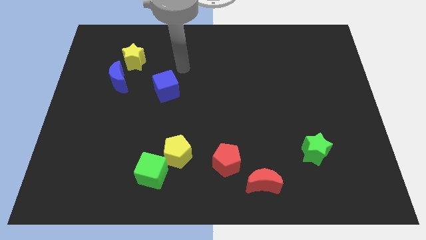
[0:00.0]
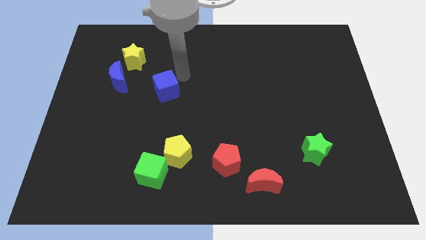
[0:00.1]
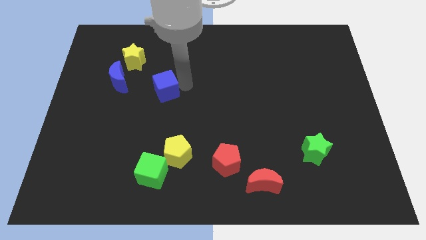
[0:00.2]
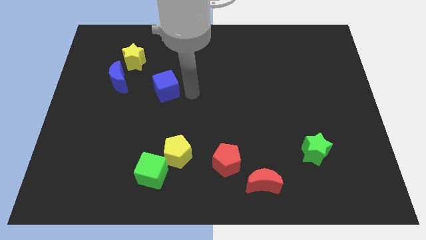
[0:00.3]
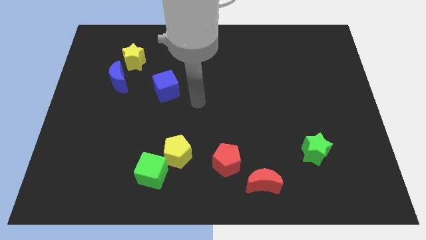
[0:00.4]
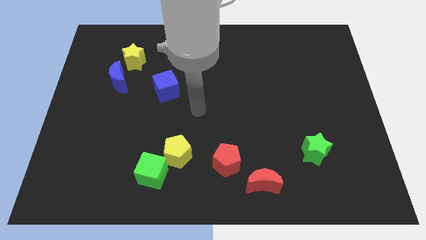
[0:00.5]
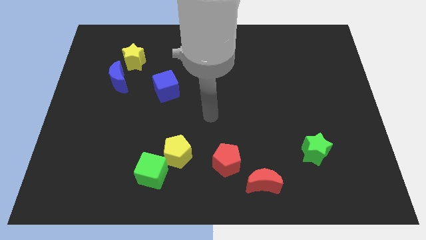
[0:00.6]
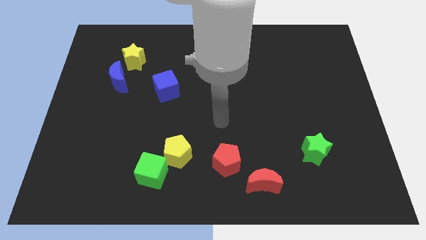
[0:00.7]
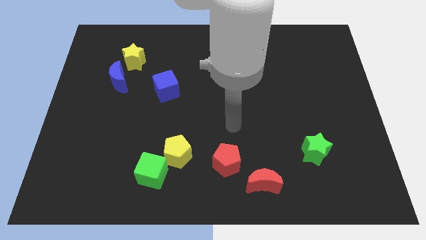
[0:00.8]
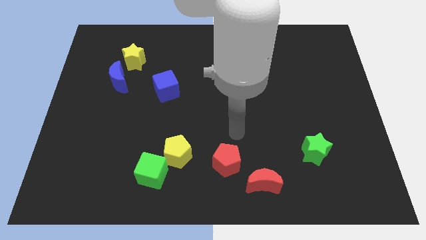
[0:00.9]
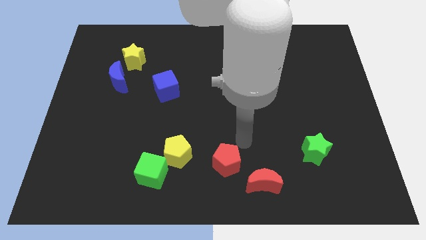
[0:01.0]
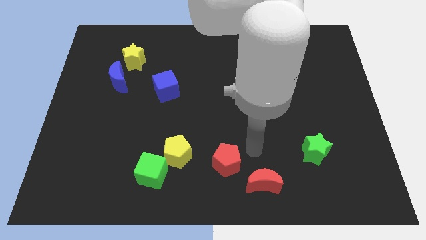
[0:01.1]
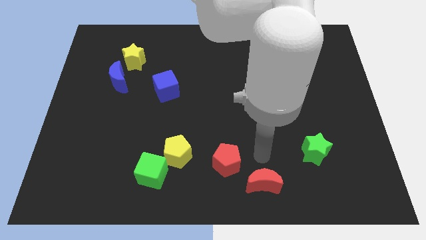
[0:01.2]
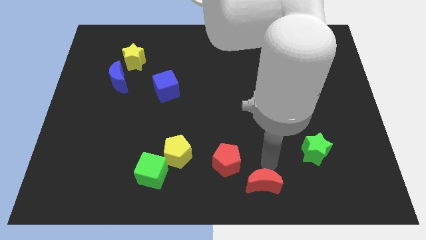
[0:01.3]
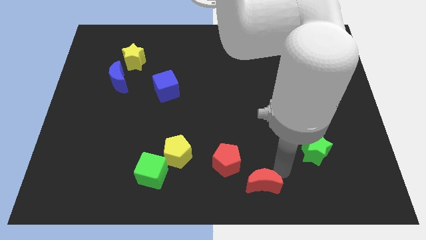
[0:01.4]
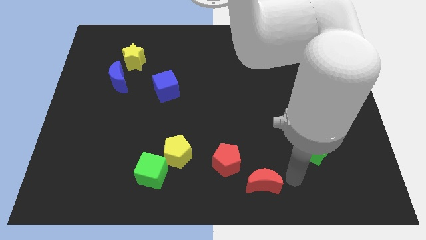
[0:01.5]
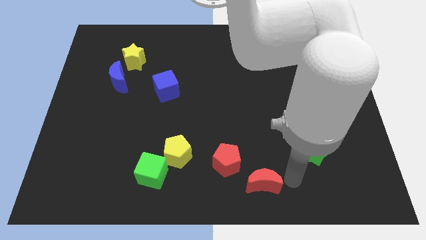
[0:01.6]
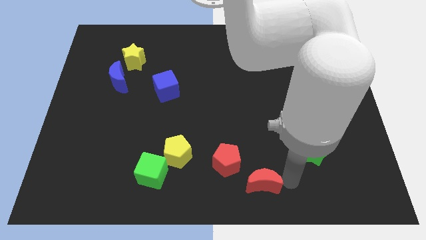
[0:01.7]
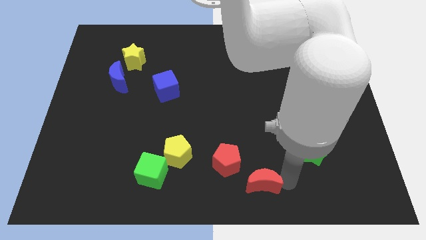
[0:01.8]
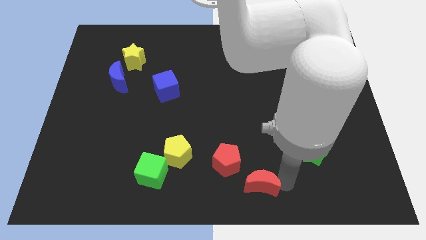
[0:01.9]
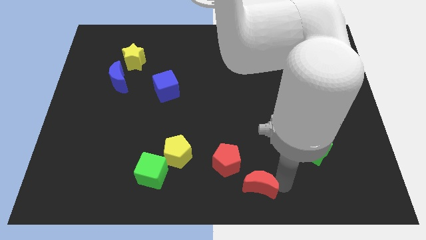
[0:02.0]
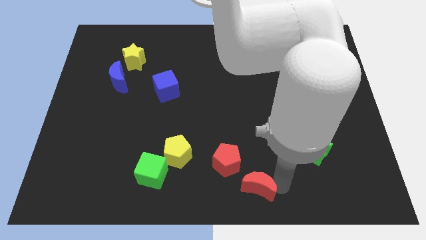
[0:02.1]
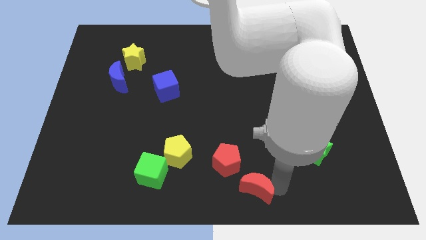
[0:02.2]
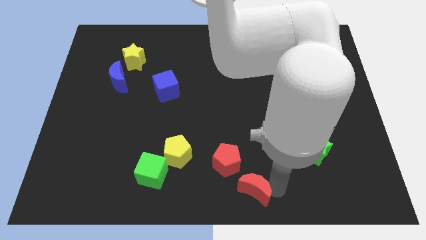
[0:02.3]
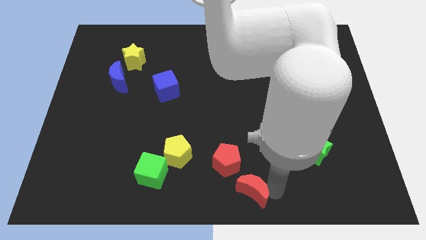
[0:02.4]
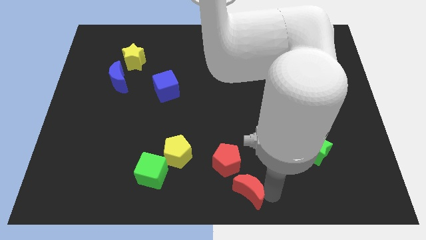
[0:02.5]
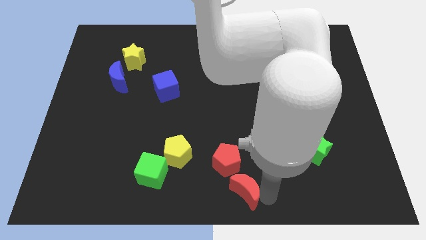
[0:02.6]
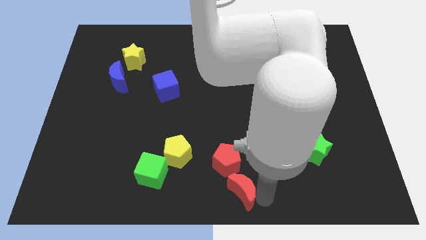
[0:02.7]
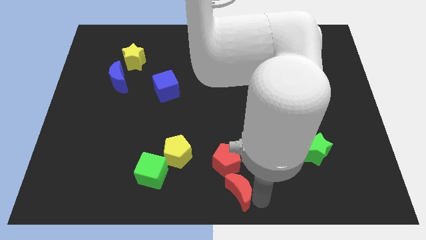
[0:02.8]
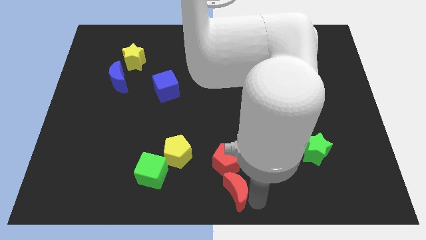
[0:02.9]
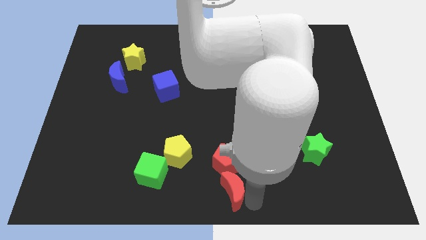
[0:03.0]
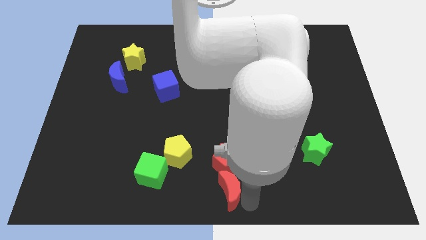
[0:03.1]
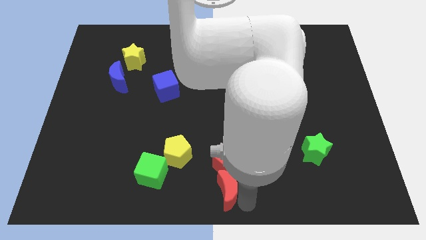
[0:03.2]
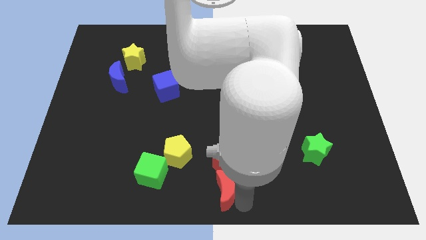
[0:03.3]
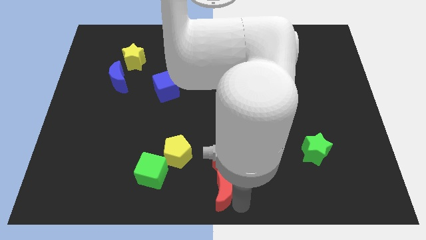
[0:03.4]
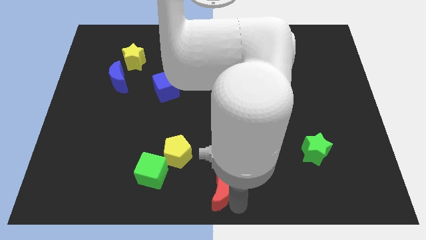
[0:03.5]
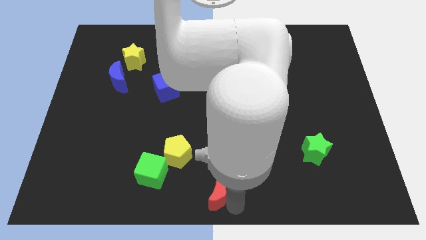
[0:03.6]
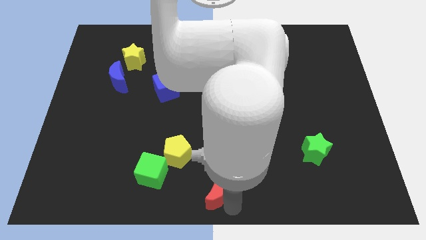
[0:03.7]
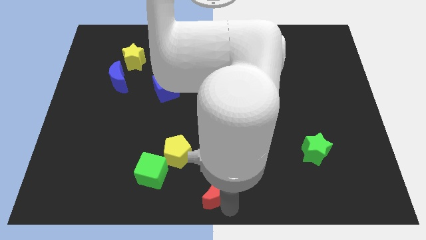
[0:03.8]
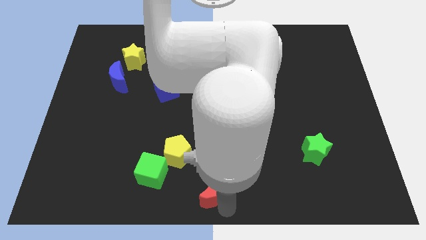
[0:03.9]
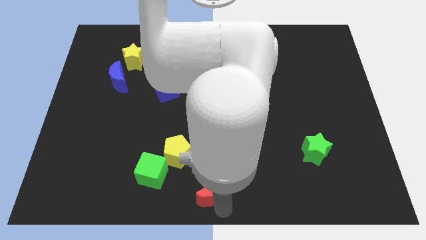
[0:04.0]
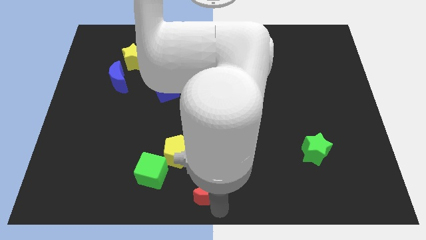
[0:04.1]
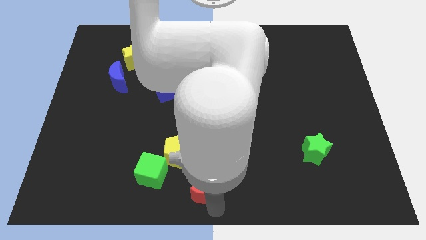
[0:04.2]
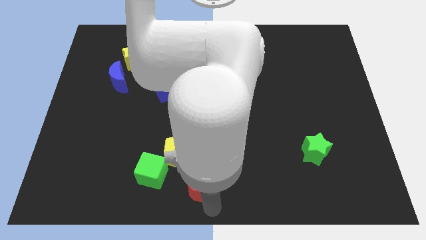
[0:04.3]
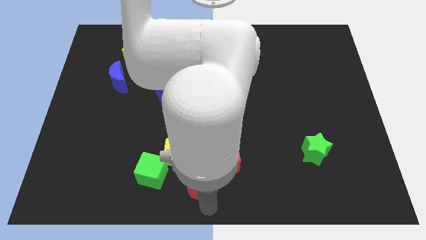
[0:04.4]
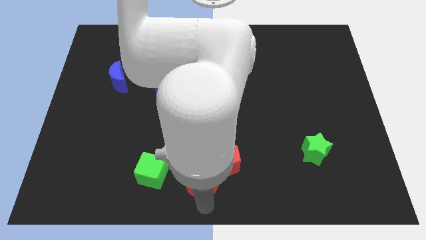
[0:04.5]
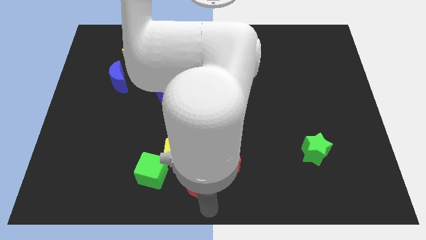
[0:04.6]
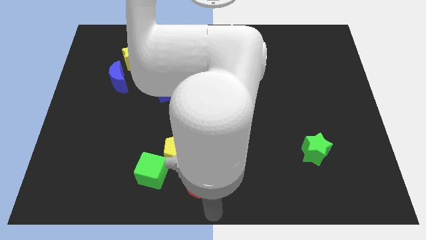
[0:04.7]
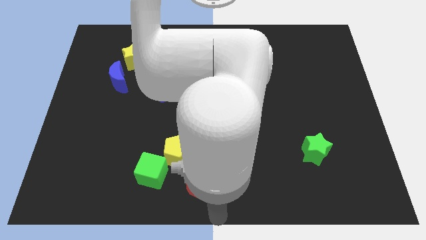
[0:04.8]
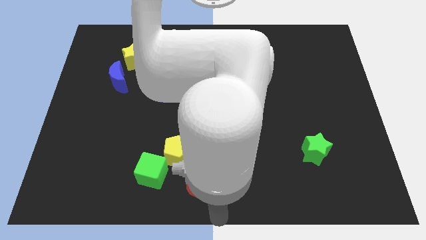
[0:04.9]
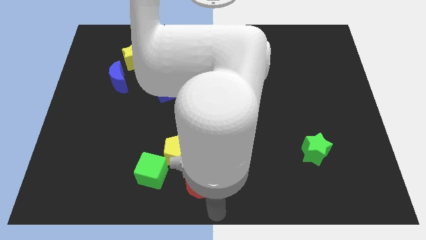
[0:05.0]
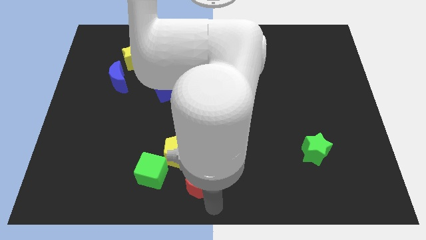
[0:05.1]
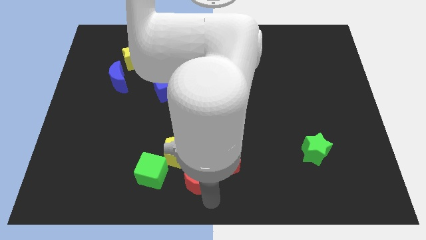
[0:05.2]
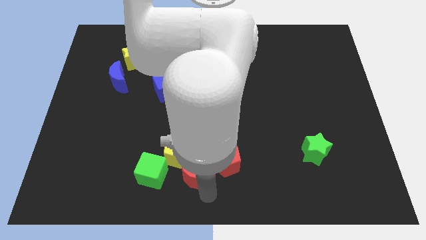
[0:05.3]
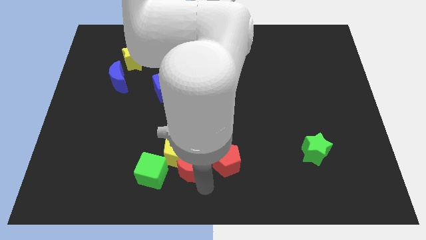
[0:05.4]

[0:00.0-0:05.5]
push the red moon next to the yellow pentagon

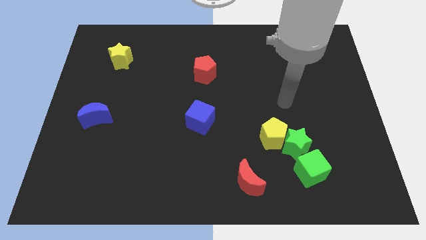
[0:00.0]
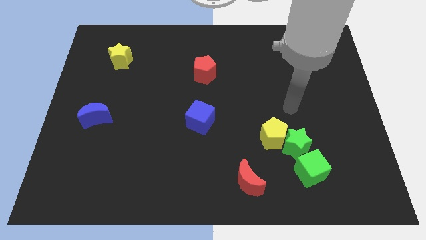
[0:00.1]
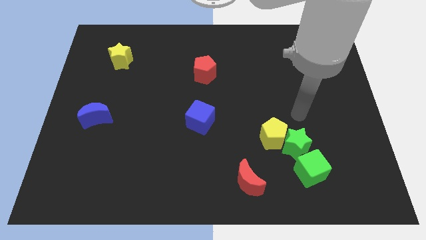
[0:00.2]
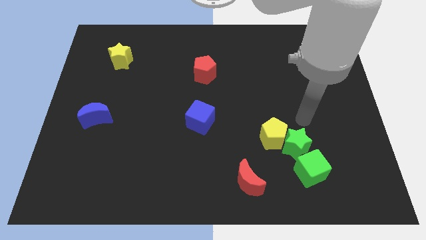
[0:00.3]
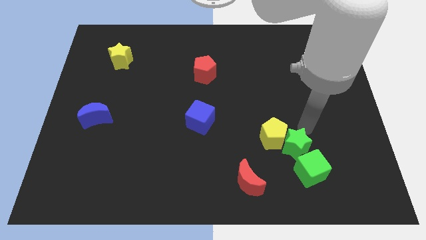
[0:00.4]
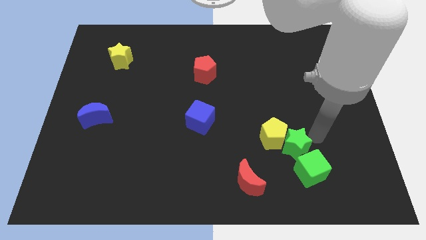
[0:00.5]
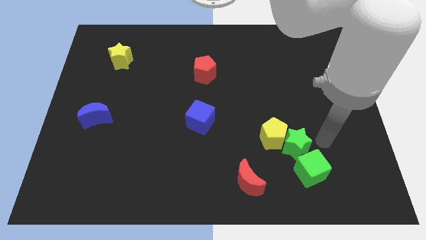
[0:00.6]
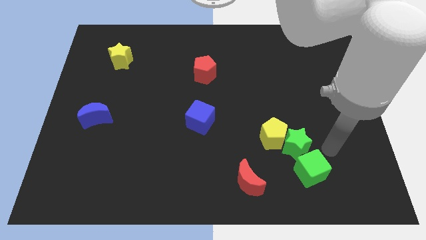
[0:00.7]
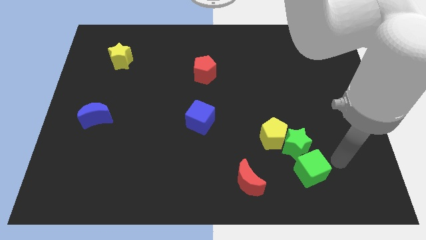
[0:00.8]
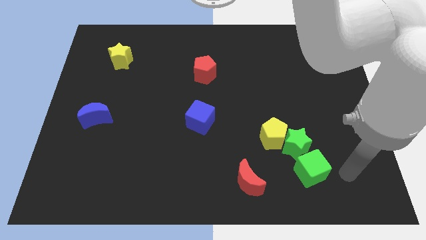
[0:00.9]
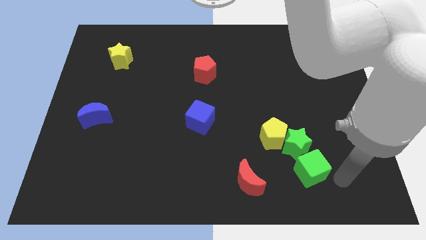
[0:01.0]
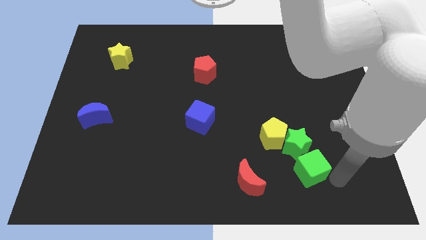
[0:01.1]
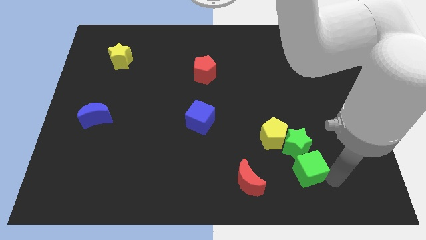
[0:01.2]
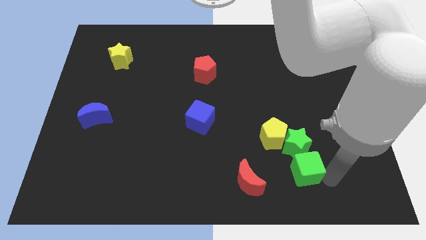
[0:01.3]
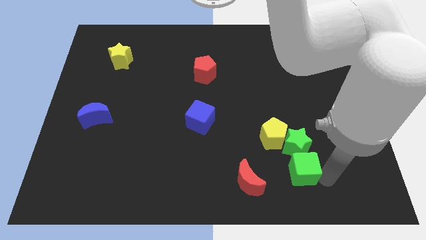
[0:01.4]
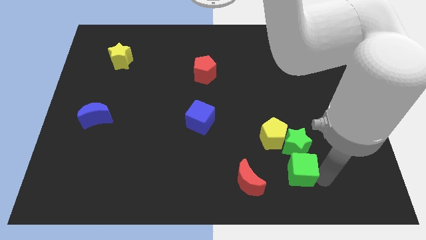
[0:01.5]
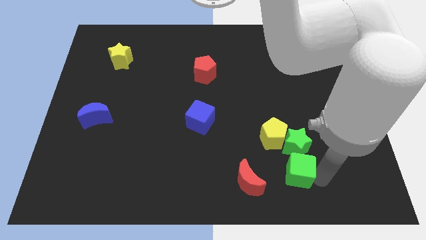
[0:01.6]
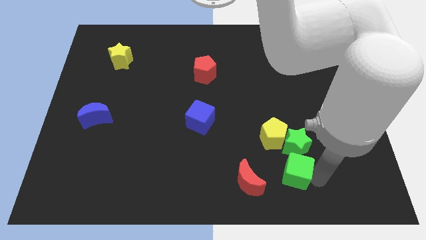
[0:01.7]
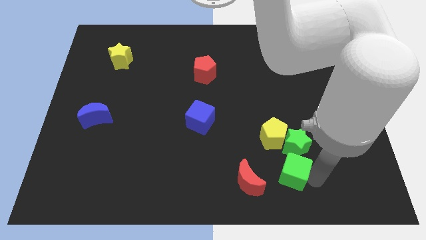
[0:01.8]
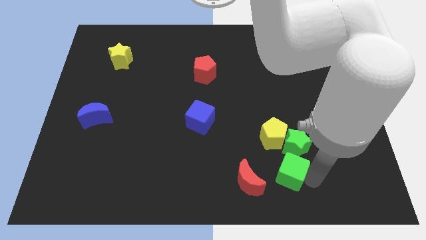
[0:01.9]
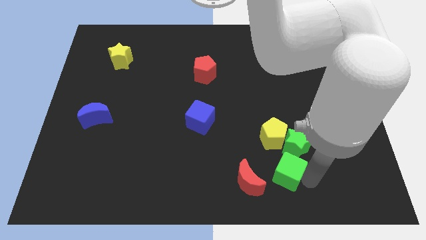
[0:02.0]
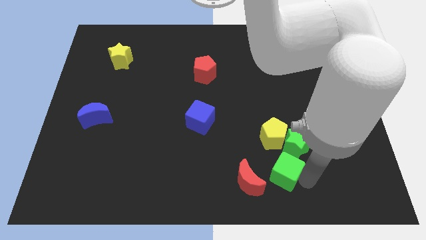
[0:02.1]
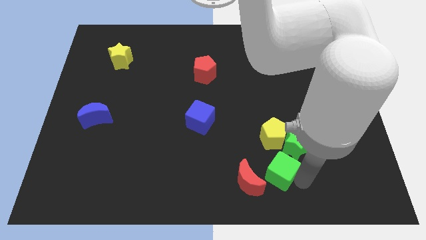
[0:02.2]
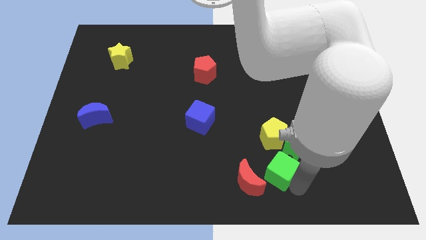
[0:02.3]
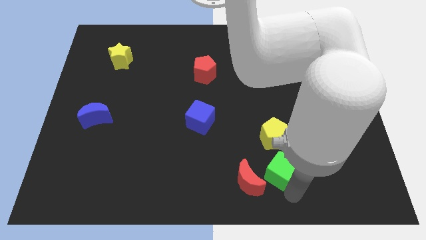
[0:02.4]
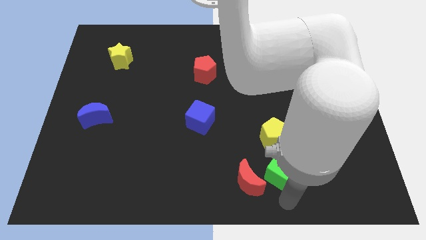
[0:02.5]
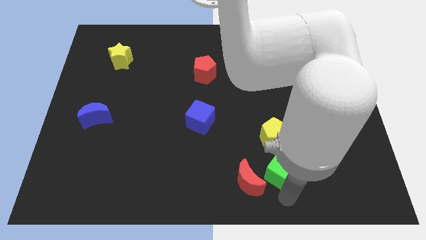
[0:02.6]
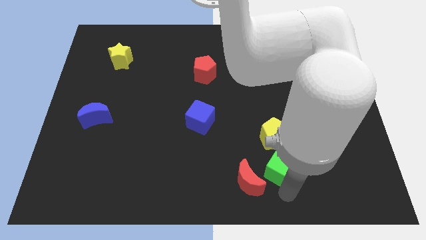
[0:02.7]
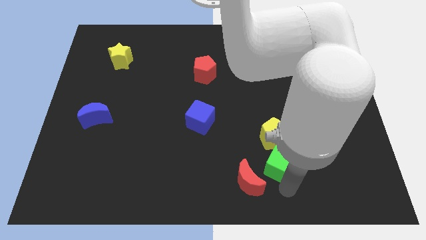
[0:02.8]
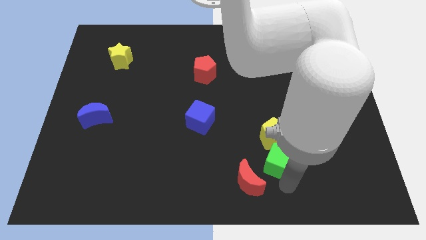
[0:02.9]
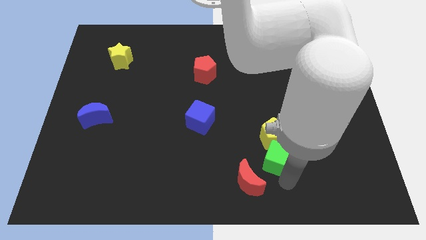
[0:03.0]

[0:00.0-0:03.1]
put the green cube close to the yellow pentagon
